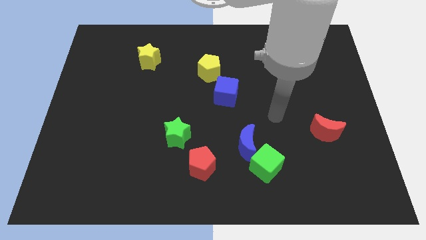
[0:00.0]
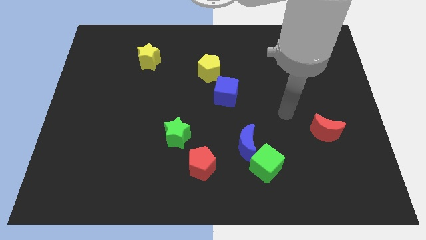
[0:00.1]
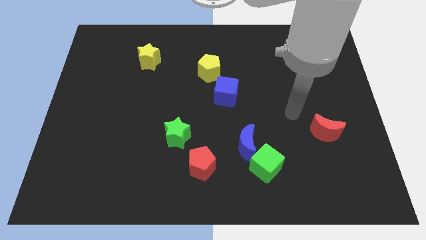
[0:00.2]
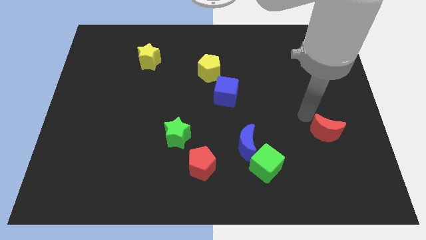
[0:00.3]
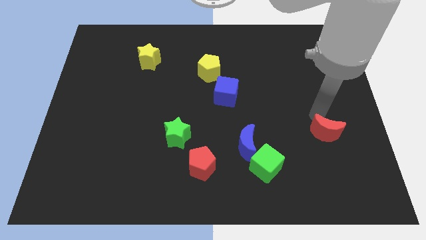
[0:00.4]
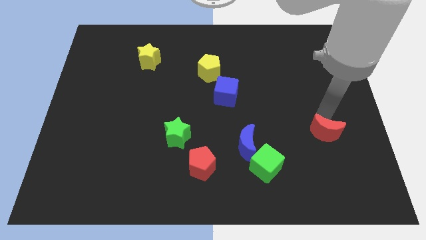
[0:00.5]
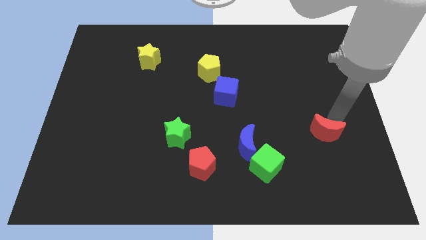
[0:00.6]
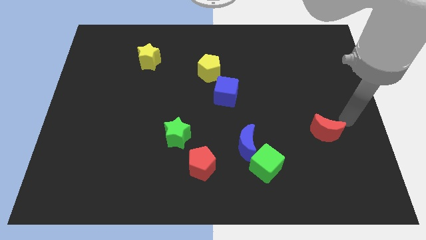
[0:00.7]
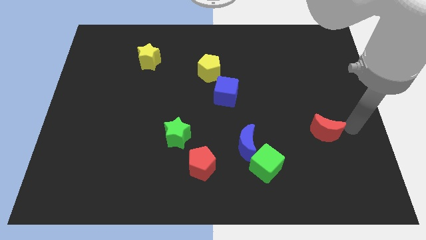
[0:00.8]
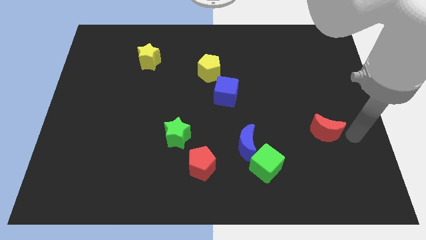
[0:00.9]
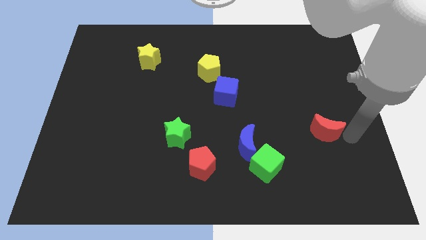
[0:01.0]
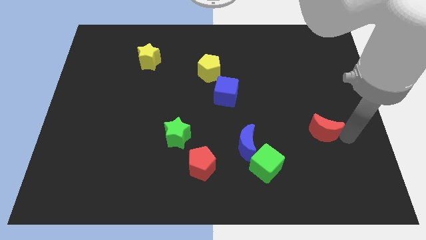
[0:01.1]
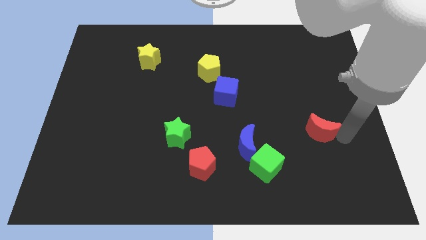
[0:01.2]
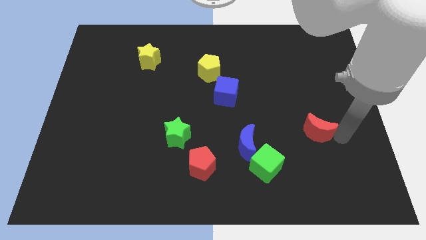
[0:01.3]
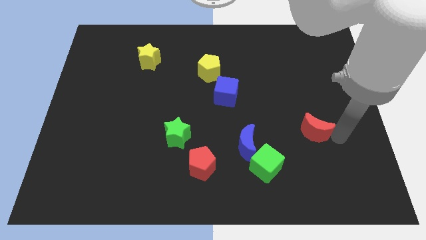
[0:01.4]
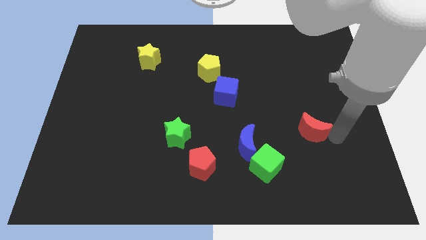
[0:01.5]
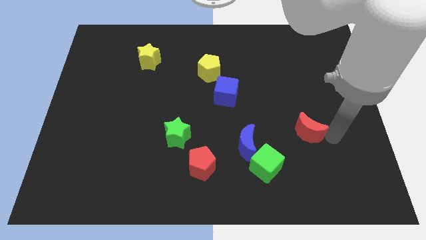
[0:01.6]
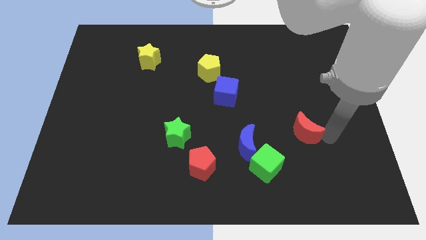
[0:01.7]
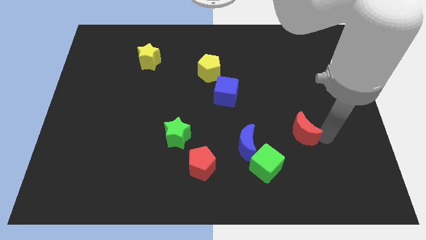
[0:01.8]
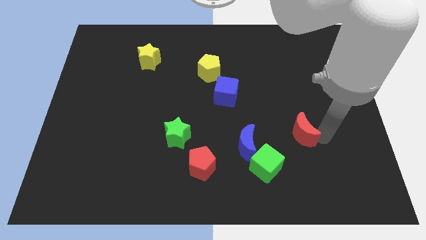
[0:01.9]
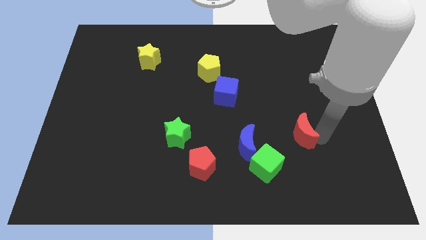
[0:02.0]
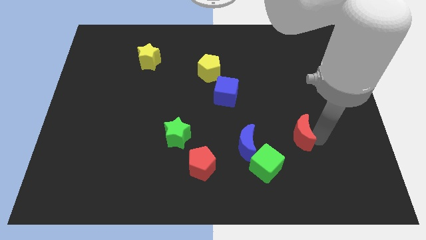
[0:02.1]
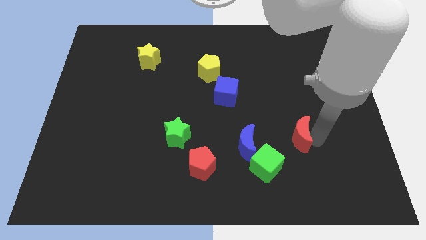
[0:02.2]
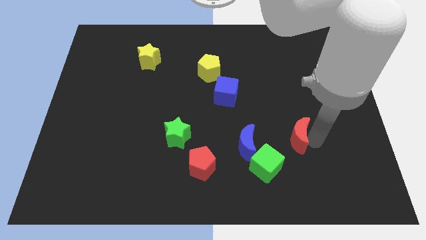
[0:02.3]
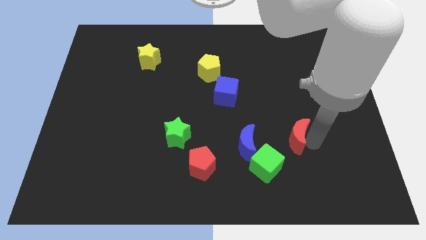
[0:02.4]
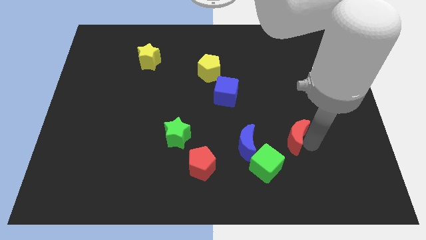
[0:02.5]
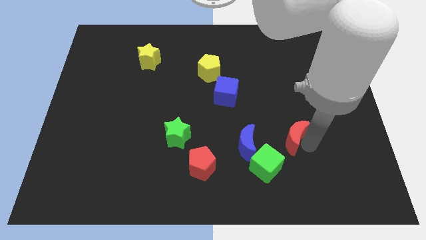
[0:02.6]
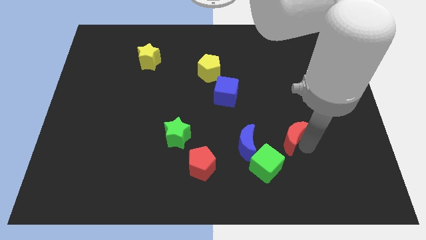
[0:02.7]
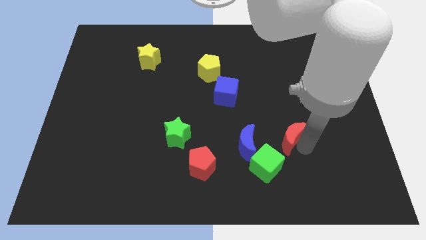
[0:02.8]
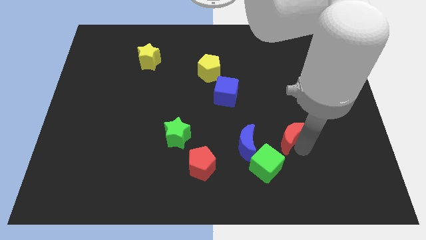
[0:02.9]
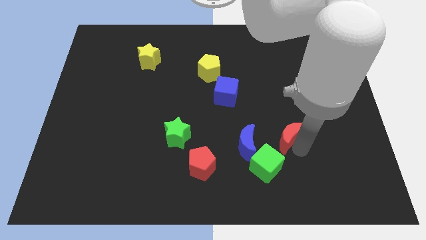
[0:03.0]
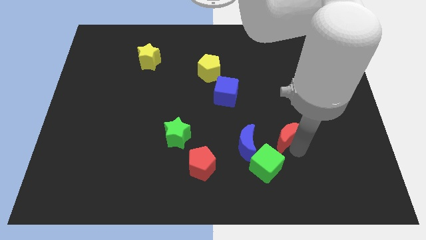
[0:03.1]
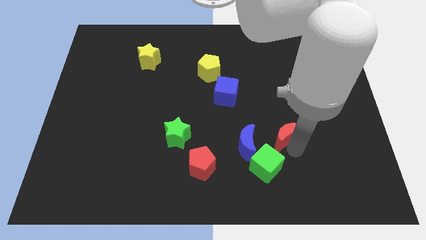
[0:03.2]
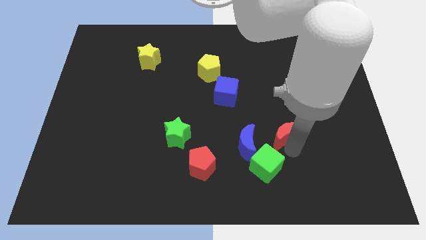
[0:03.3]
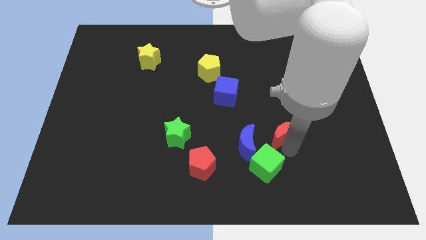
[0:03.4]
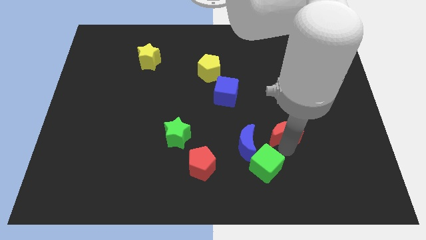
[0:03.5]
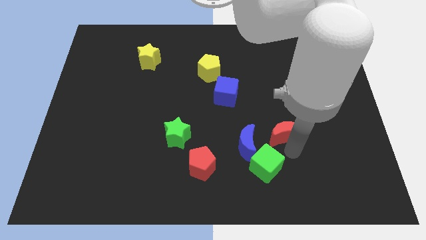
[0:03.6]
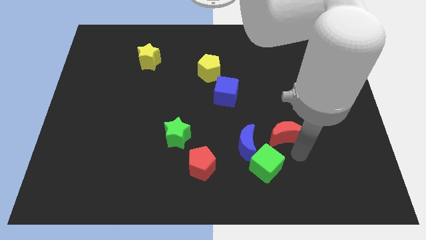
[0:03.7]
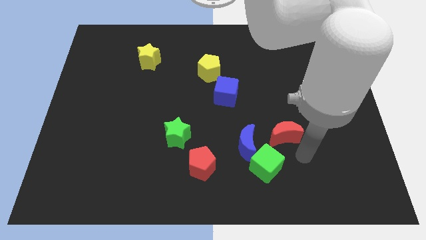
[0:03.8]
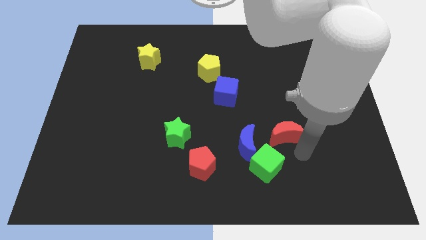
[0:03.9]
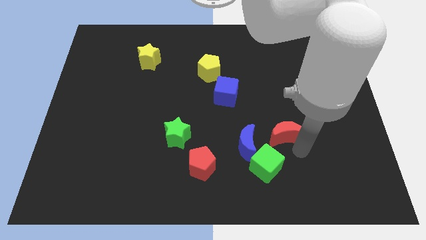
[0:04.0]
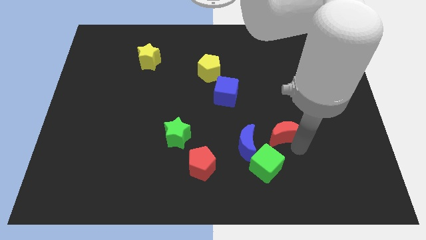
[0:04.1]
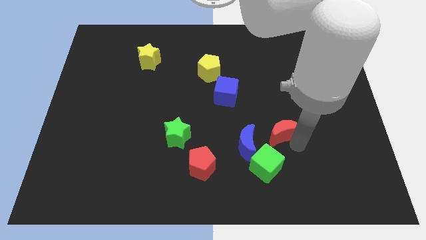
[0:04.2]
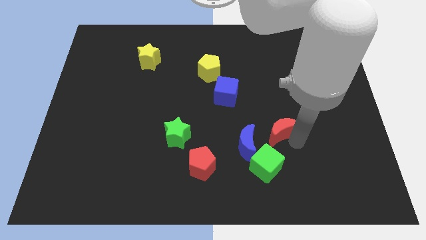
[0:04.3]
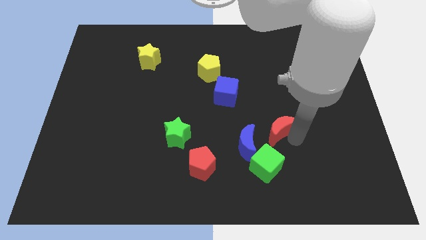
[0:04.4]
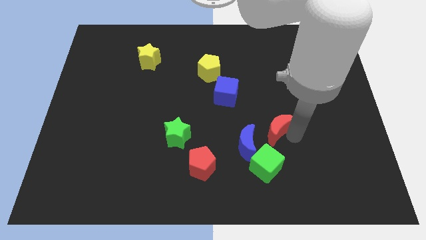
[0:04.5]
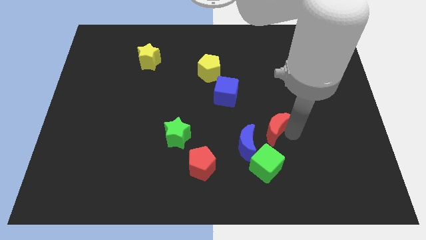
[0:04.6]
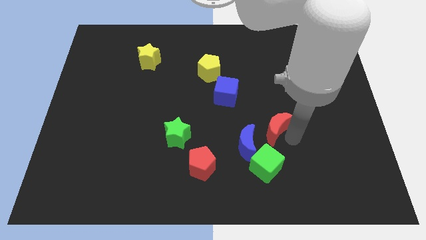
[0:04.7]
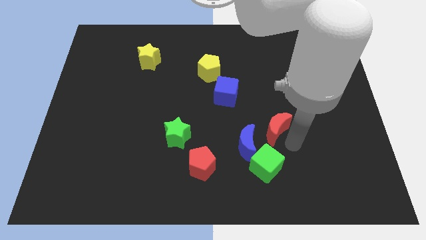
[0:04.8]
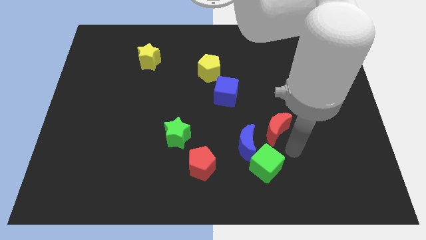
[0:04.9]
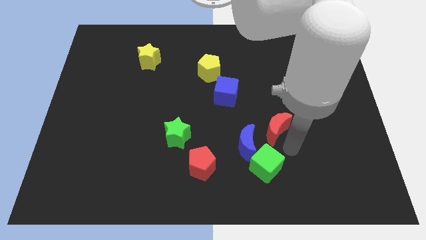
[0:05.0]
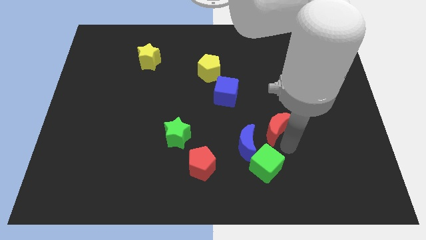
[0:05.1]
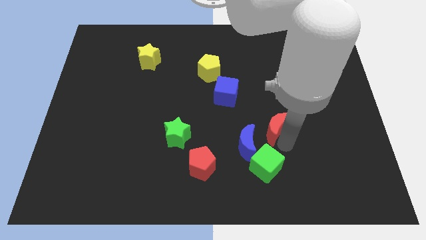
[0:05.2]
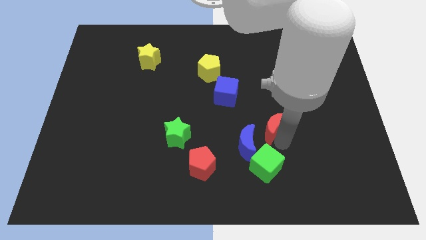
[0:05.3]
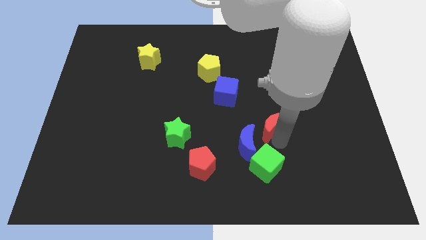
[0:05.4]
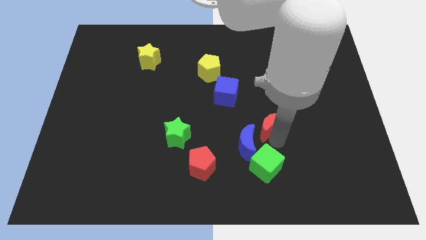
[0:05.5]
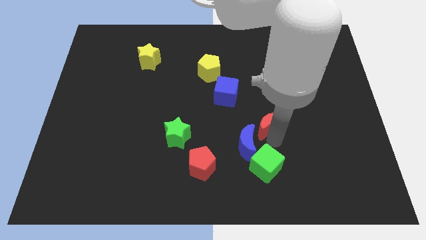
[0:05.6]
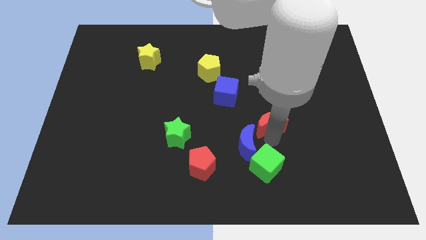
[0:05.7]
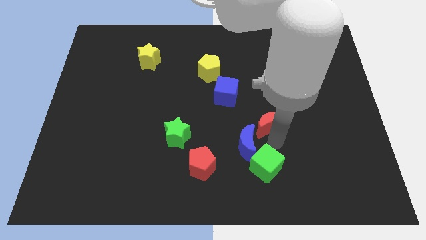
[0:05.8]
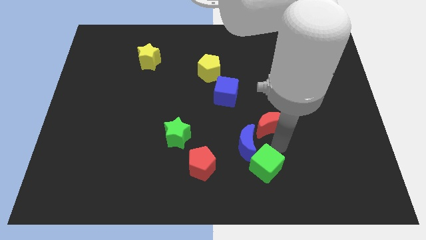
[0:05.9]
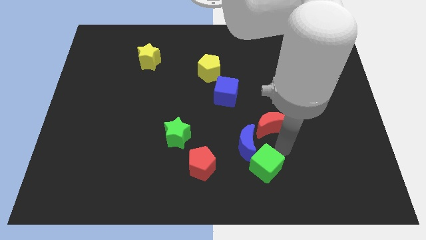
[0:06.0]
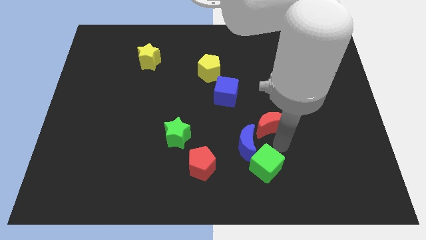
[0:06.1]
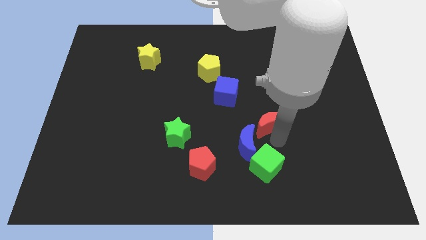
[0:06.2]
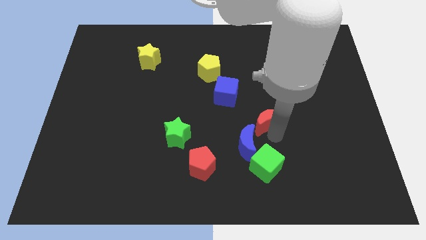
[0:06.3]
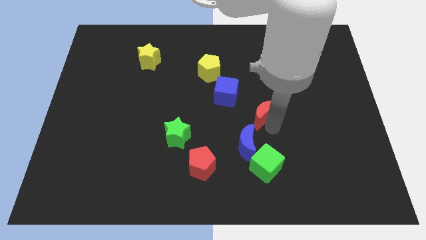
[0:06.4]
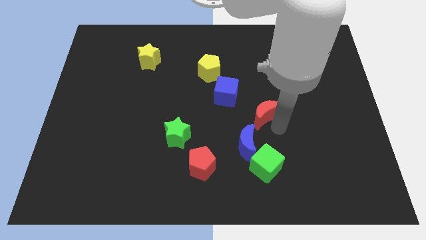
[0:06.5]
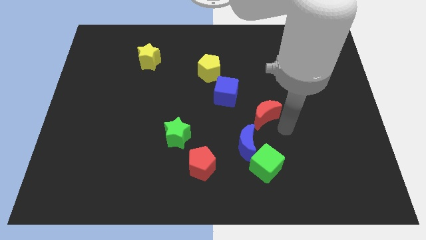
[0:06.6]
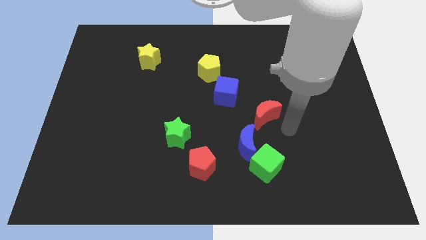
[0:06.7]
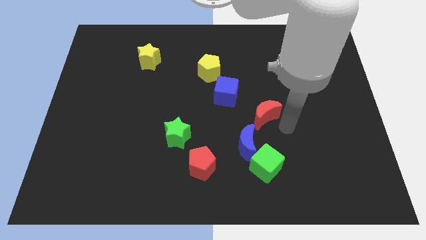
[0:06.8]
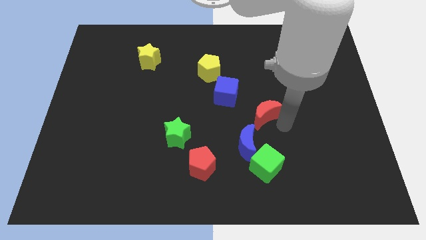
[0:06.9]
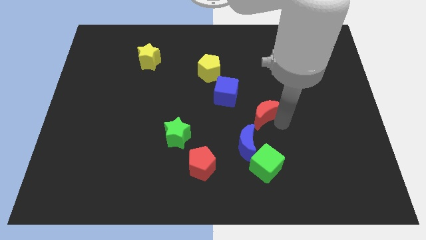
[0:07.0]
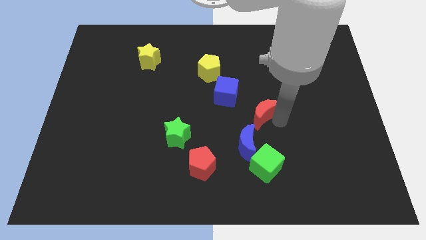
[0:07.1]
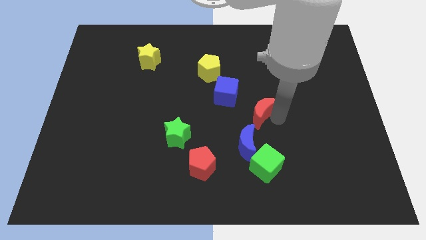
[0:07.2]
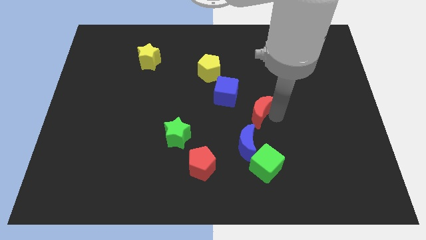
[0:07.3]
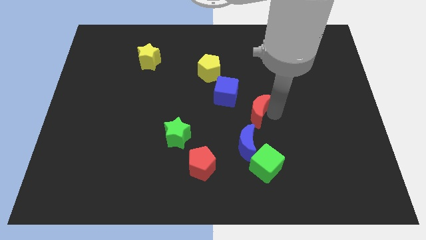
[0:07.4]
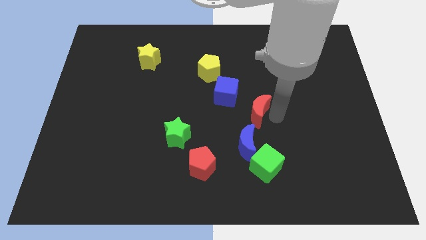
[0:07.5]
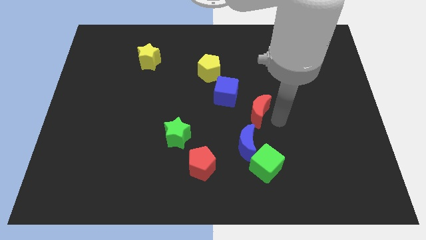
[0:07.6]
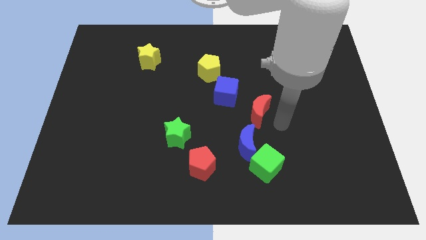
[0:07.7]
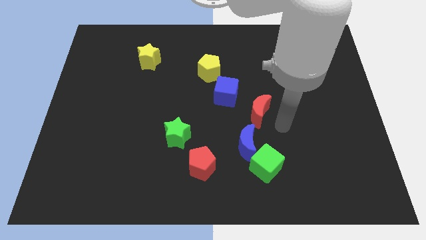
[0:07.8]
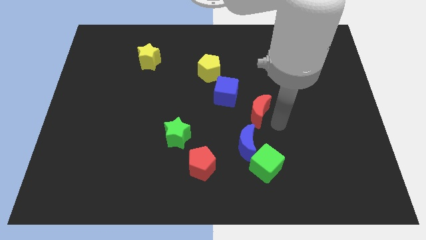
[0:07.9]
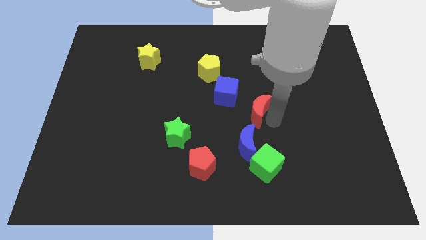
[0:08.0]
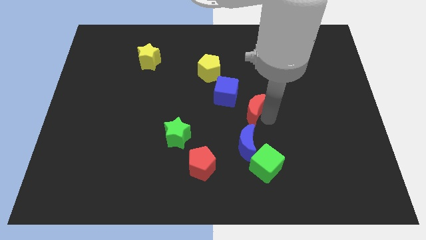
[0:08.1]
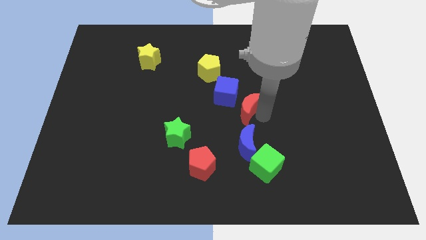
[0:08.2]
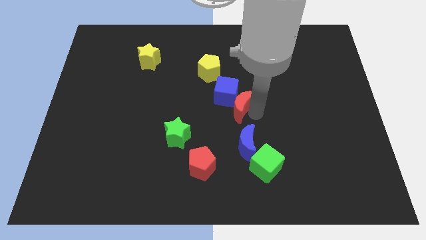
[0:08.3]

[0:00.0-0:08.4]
move the red moon towards the blue cube
